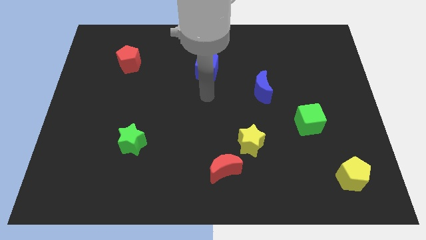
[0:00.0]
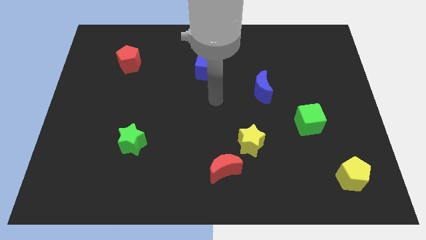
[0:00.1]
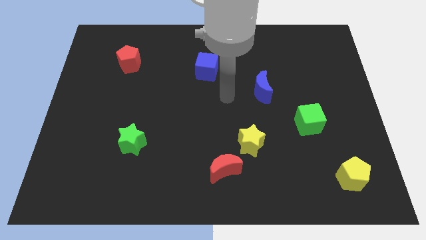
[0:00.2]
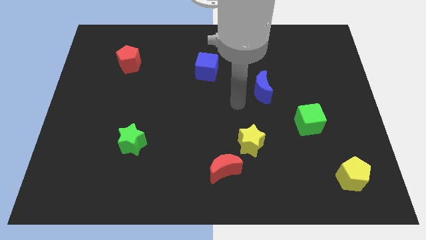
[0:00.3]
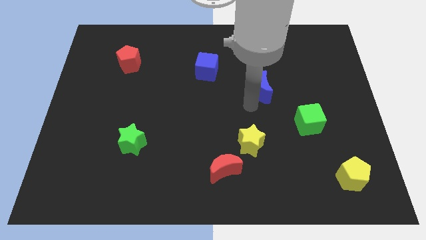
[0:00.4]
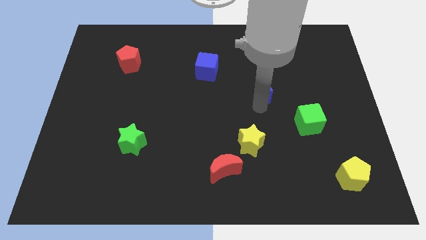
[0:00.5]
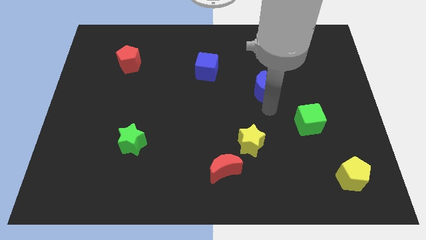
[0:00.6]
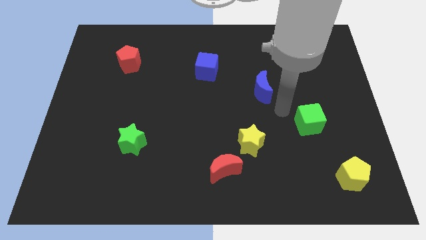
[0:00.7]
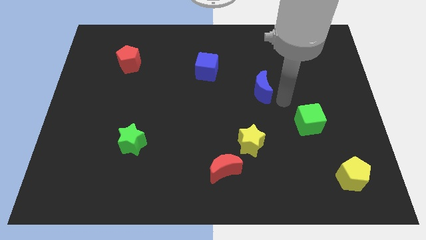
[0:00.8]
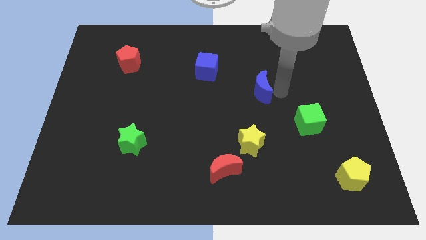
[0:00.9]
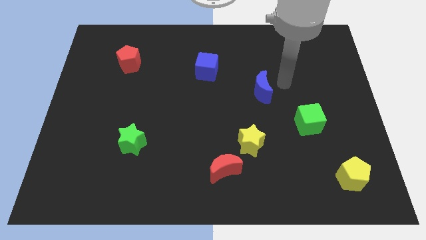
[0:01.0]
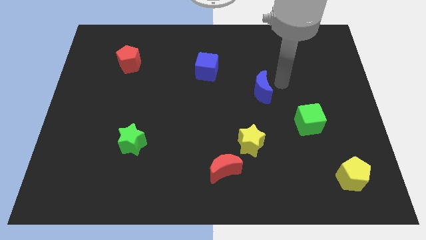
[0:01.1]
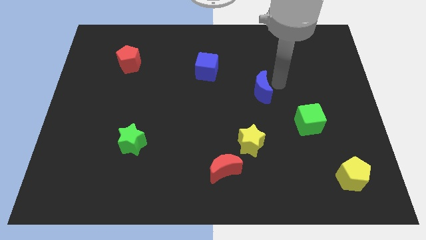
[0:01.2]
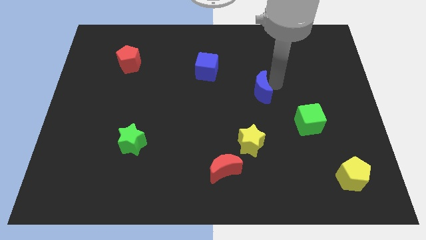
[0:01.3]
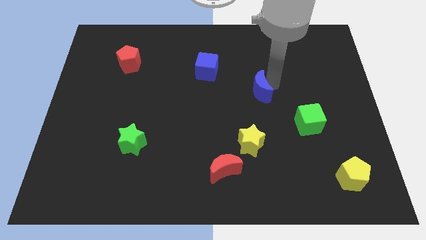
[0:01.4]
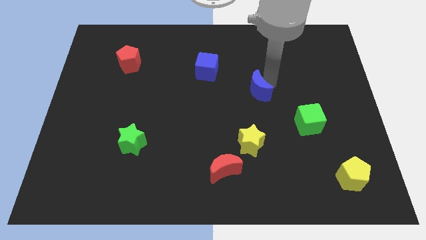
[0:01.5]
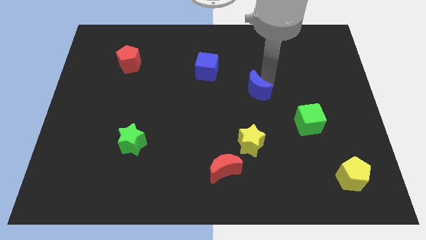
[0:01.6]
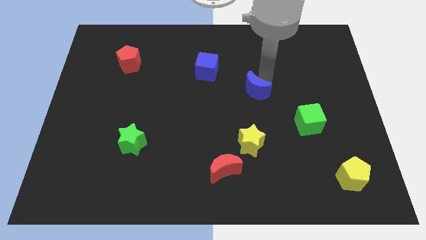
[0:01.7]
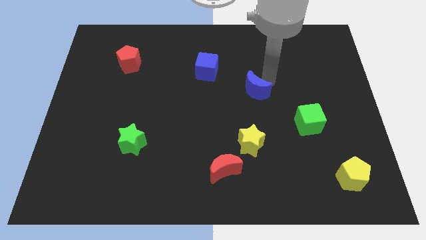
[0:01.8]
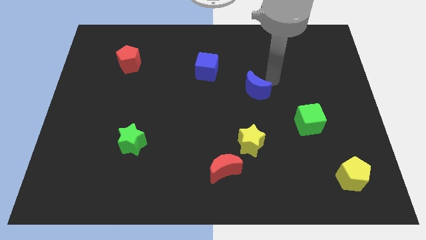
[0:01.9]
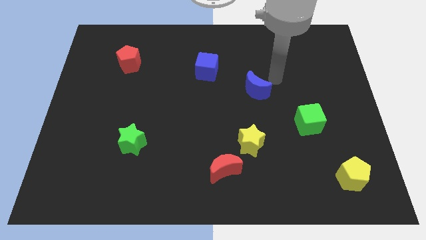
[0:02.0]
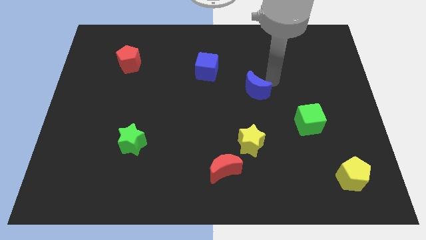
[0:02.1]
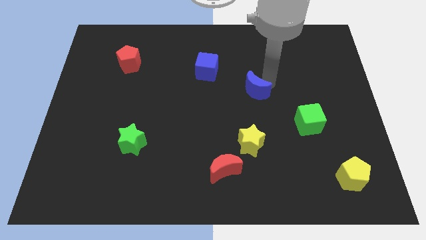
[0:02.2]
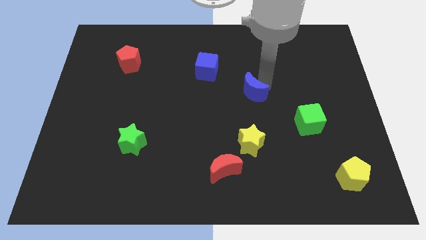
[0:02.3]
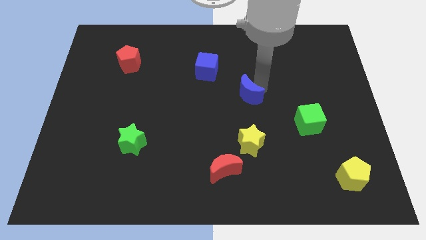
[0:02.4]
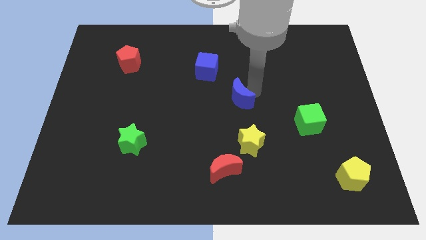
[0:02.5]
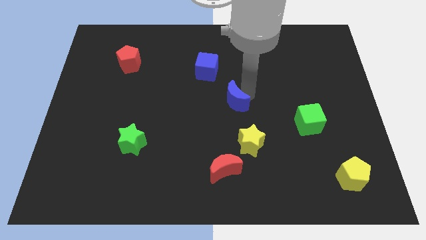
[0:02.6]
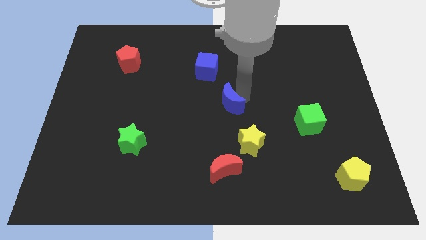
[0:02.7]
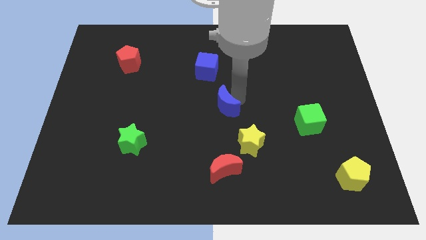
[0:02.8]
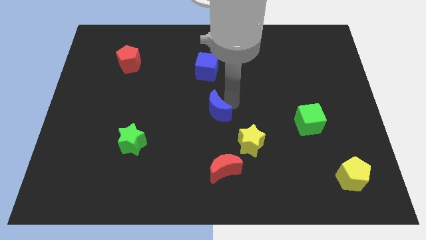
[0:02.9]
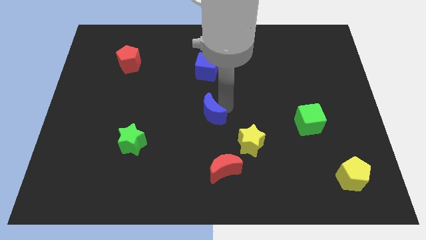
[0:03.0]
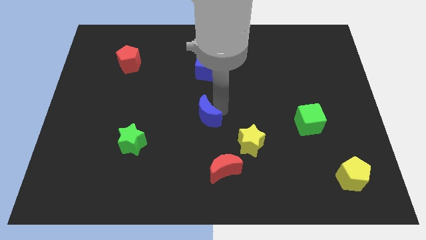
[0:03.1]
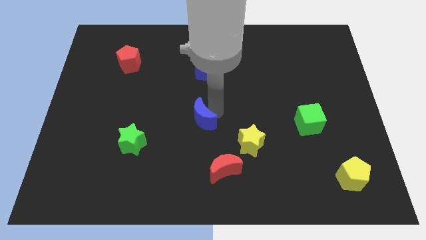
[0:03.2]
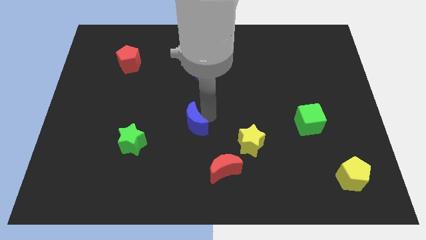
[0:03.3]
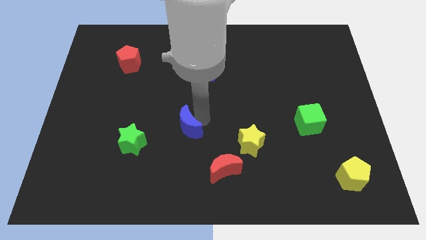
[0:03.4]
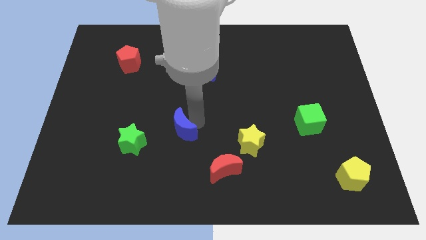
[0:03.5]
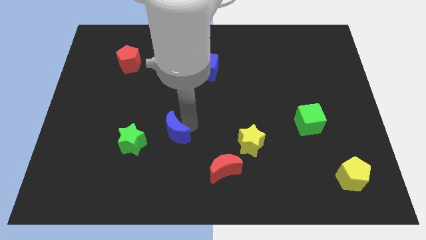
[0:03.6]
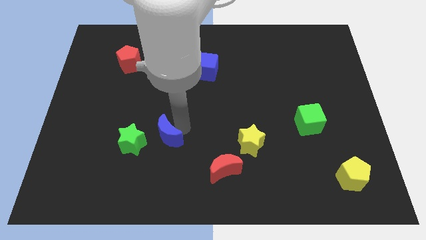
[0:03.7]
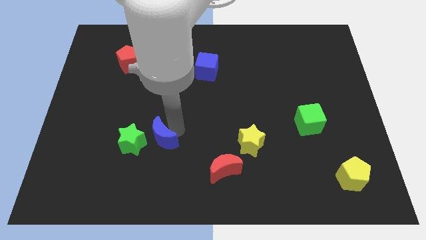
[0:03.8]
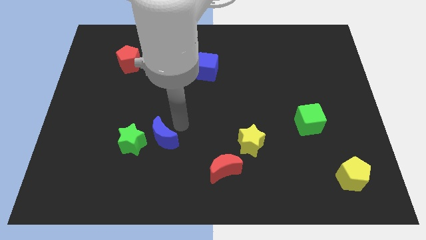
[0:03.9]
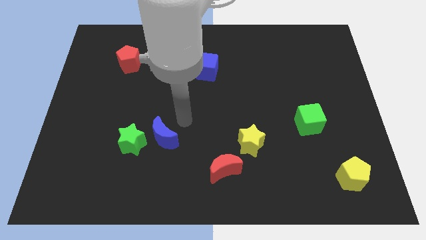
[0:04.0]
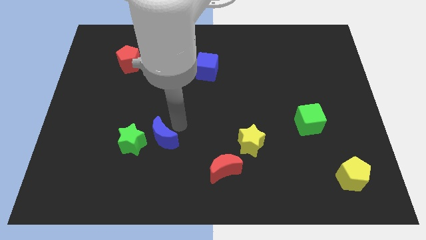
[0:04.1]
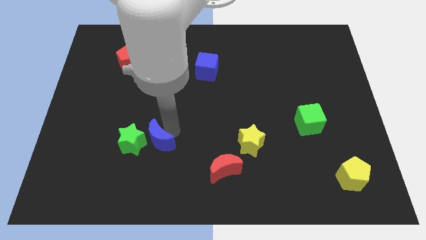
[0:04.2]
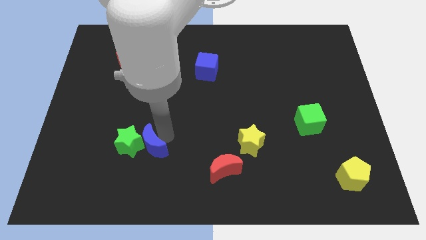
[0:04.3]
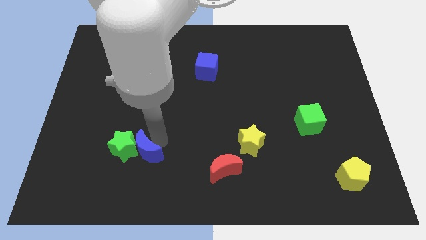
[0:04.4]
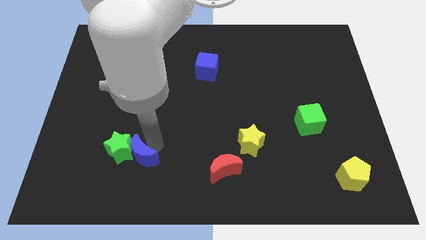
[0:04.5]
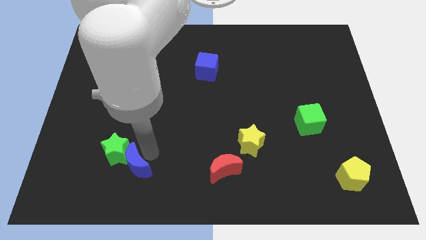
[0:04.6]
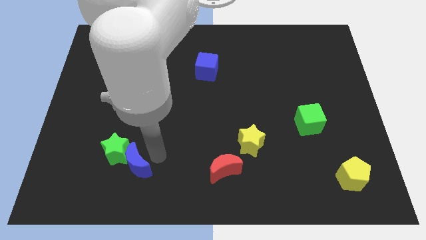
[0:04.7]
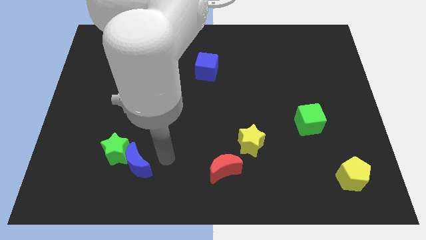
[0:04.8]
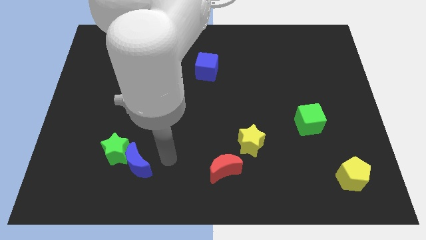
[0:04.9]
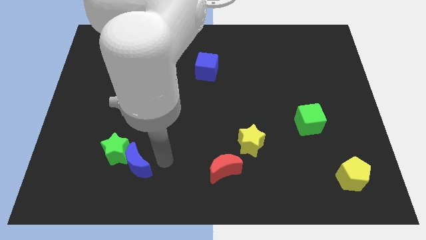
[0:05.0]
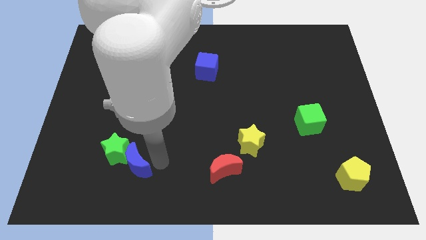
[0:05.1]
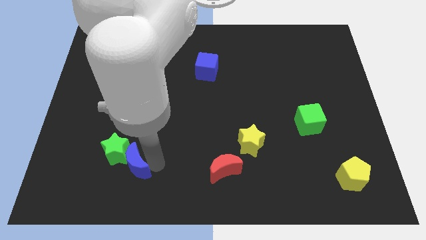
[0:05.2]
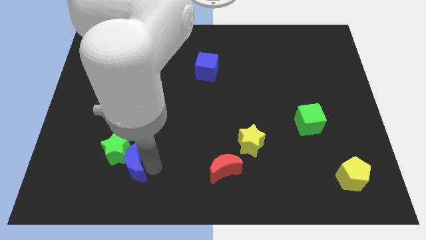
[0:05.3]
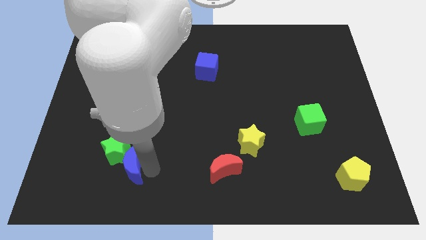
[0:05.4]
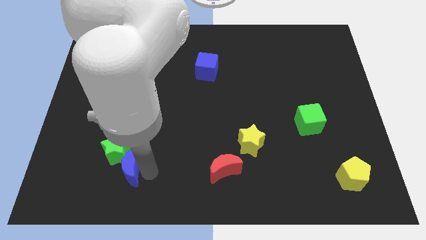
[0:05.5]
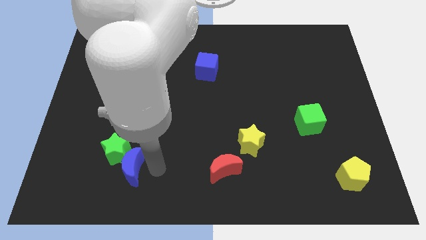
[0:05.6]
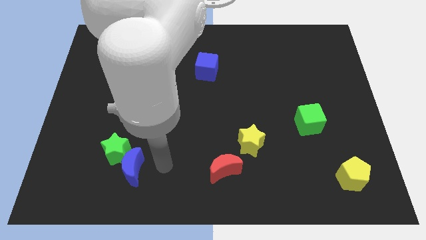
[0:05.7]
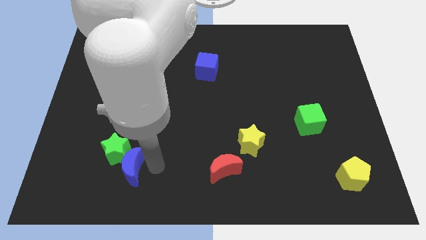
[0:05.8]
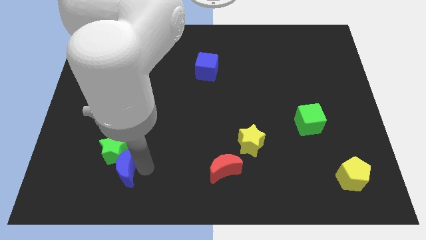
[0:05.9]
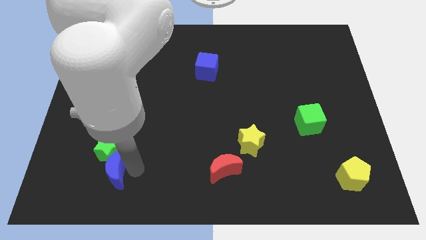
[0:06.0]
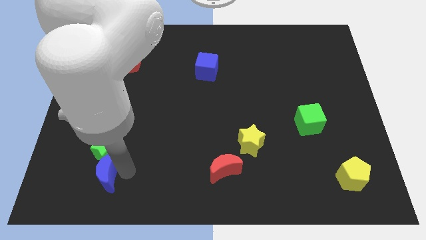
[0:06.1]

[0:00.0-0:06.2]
push the blue moon to the bottom left side of the green star
